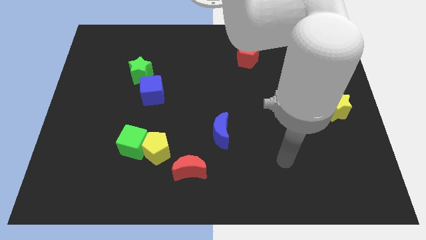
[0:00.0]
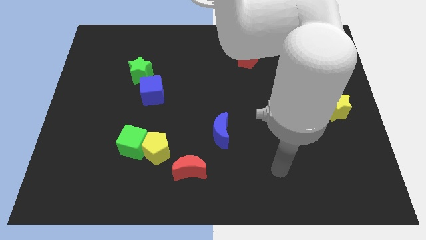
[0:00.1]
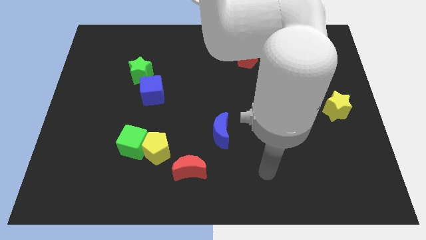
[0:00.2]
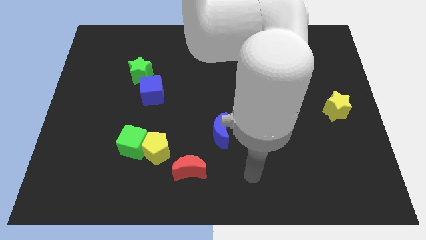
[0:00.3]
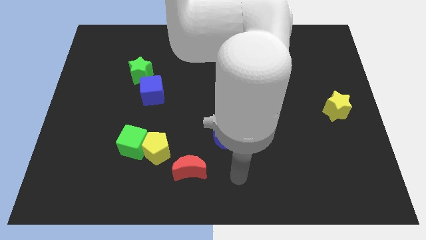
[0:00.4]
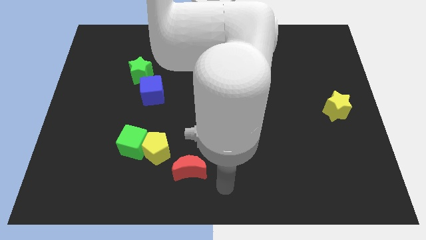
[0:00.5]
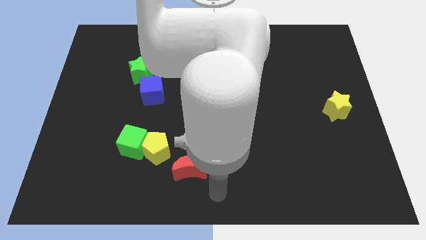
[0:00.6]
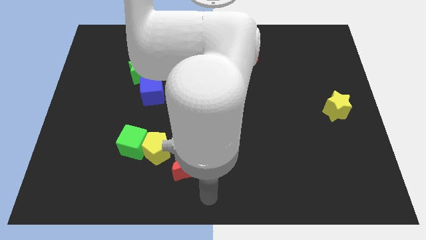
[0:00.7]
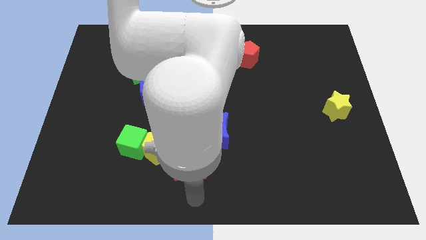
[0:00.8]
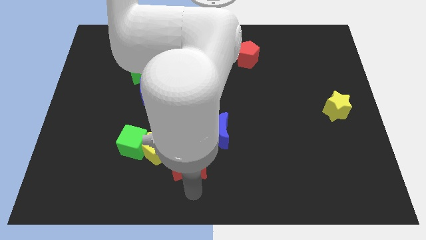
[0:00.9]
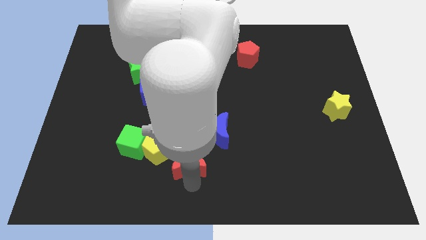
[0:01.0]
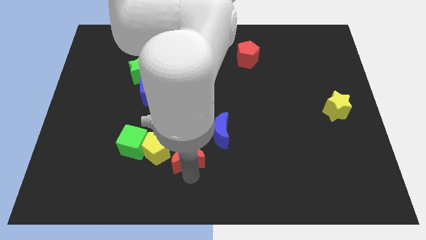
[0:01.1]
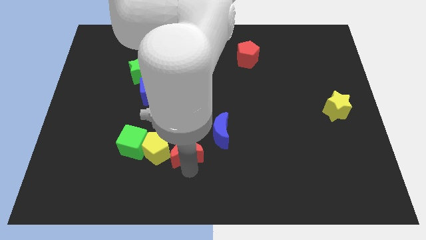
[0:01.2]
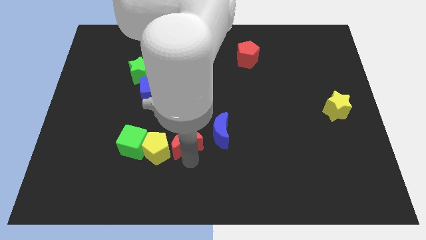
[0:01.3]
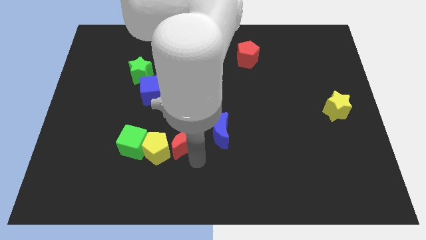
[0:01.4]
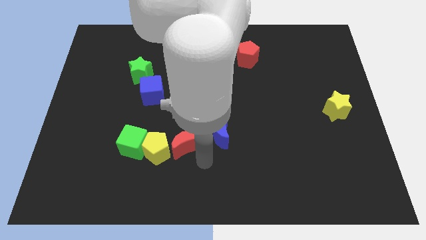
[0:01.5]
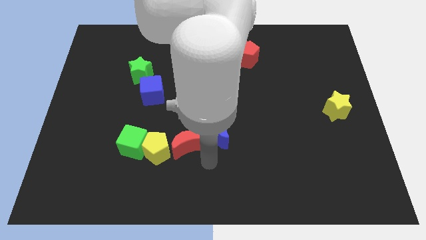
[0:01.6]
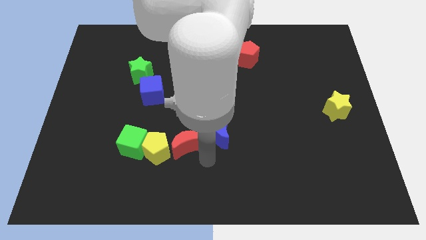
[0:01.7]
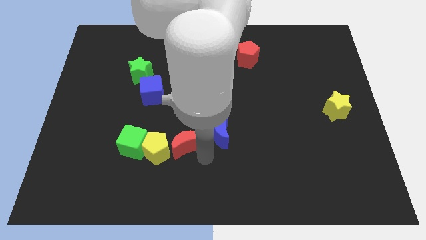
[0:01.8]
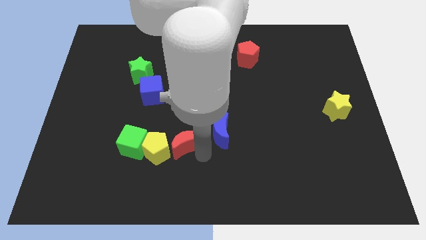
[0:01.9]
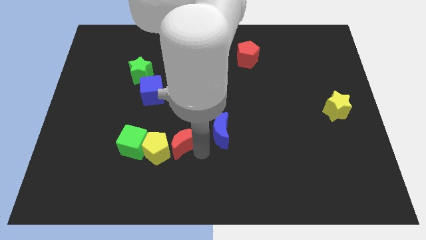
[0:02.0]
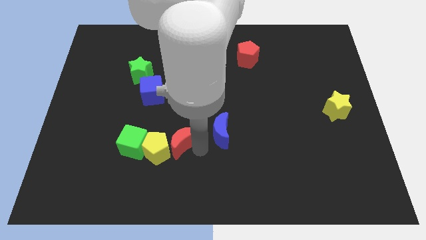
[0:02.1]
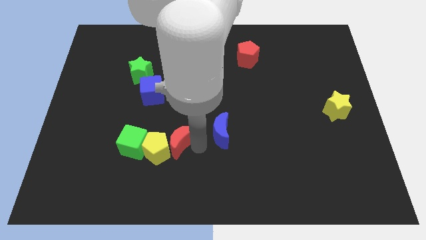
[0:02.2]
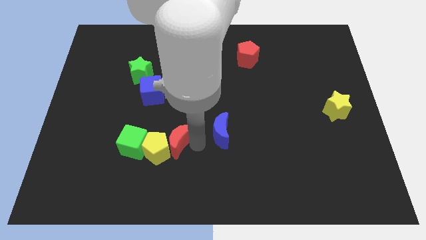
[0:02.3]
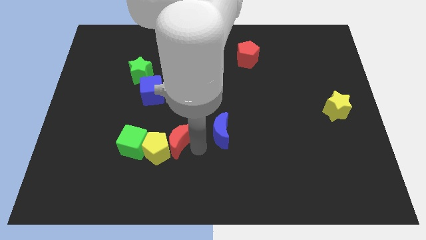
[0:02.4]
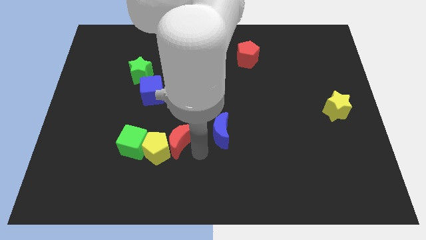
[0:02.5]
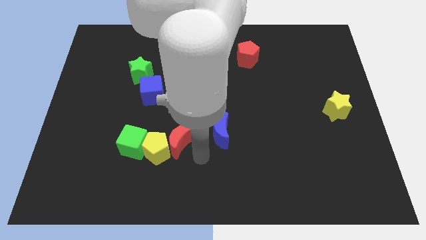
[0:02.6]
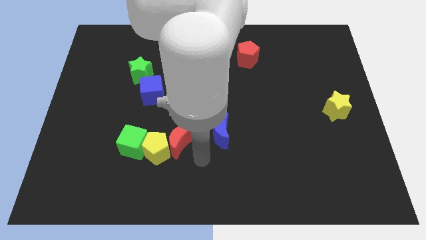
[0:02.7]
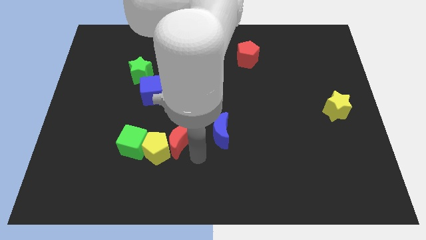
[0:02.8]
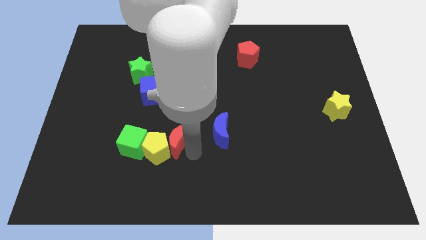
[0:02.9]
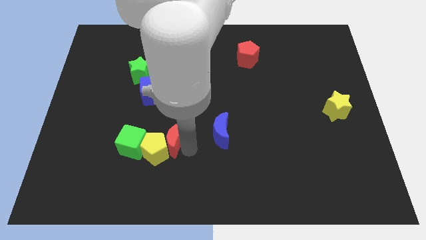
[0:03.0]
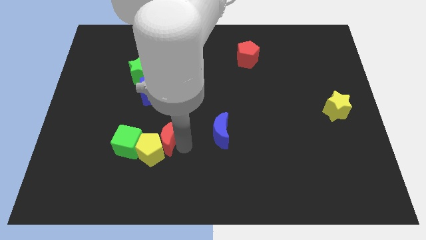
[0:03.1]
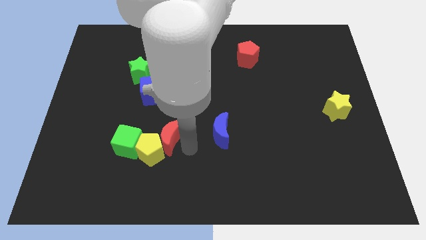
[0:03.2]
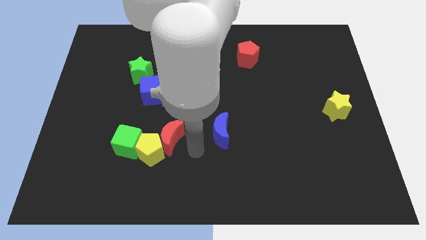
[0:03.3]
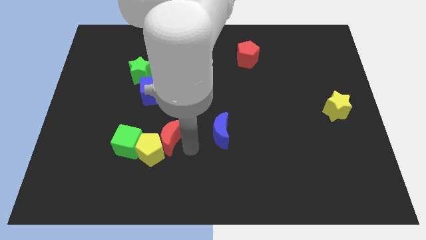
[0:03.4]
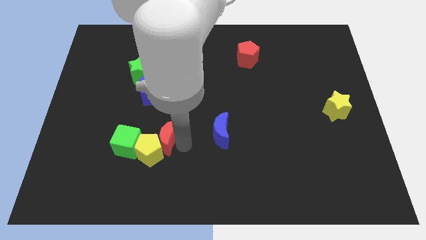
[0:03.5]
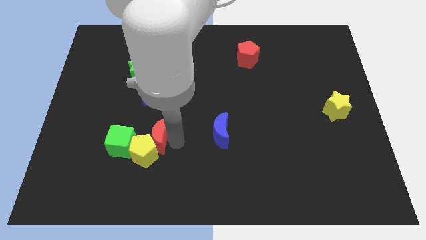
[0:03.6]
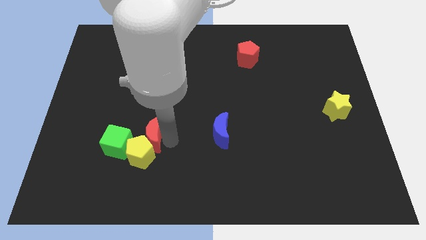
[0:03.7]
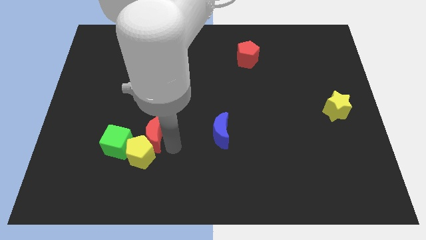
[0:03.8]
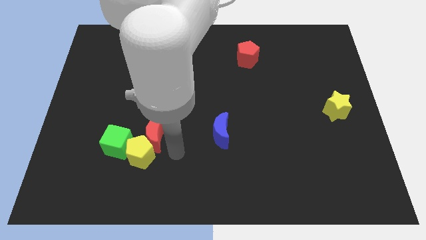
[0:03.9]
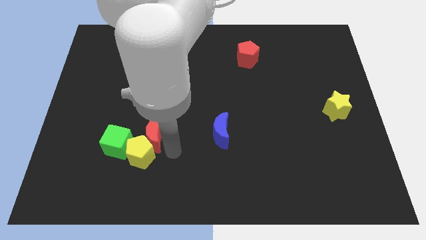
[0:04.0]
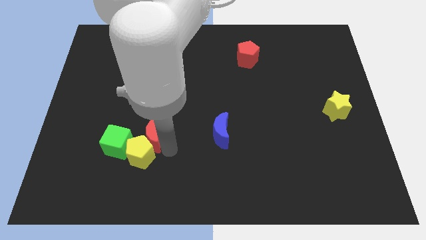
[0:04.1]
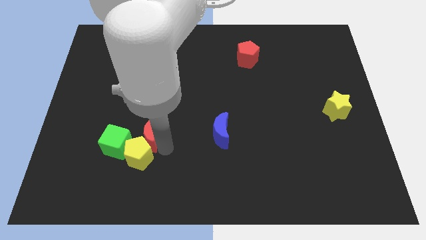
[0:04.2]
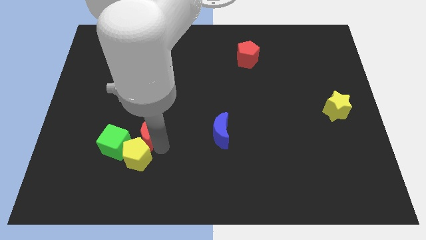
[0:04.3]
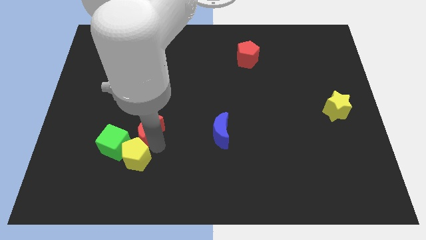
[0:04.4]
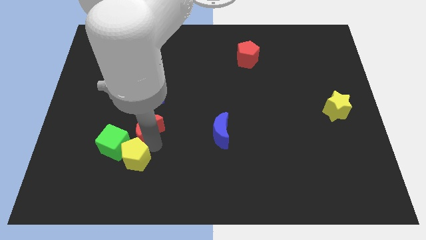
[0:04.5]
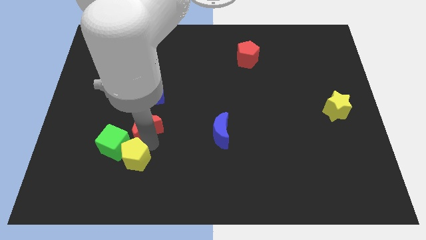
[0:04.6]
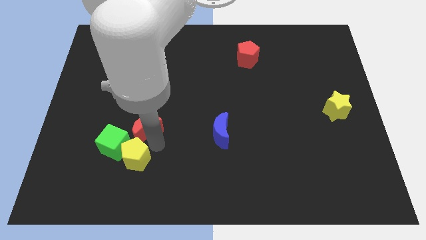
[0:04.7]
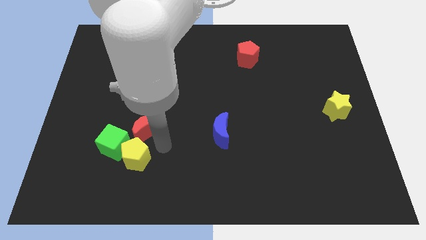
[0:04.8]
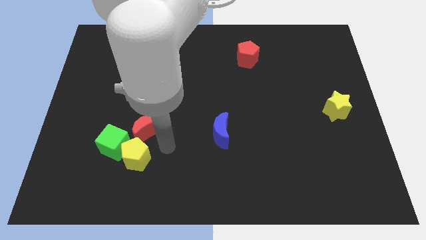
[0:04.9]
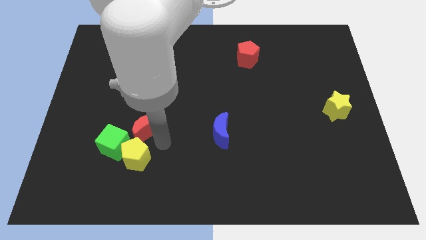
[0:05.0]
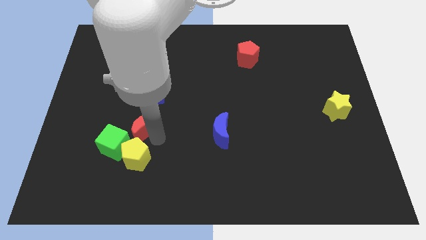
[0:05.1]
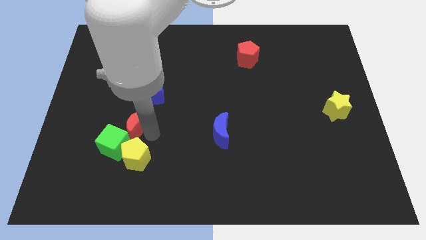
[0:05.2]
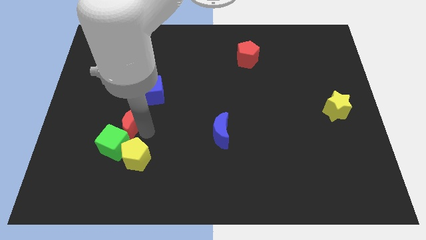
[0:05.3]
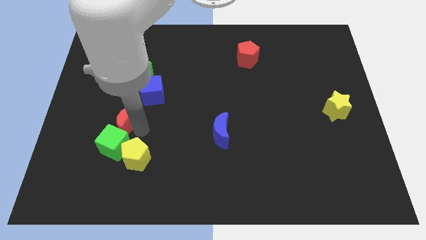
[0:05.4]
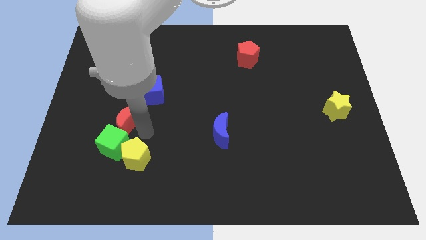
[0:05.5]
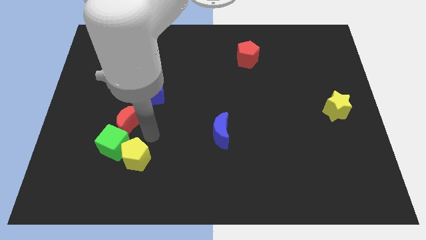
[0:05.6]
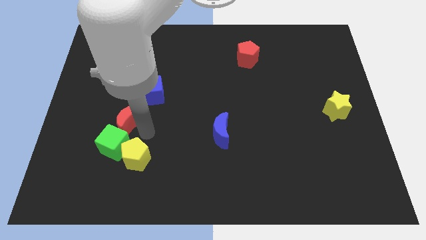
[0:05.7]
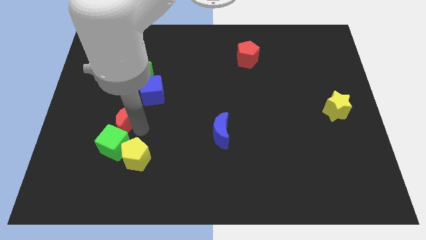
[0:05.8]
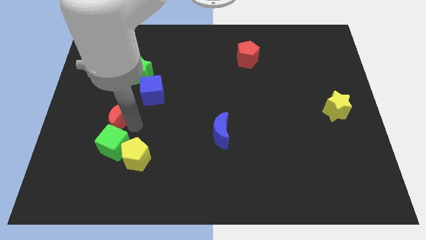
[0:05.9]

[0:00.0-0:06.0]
move the red moon up and to the left

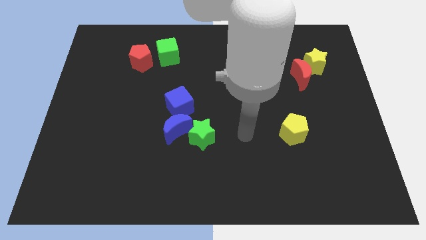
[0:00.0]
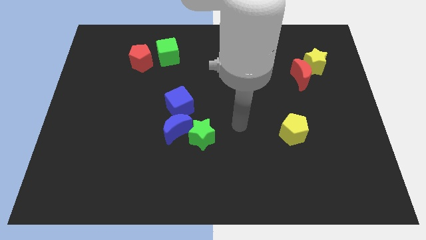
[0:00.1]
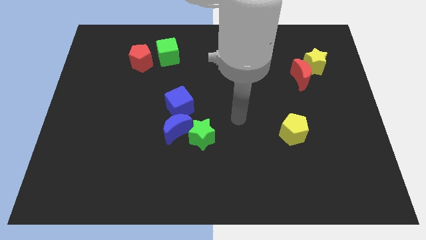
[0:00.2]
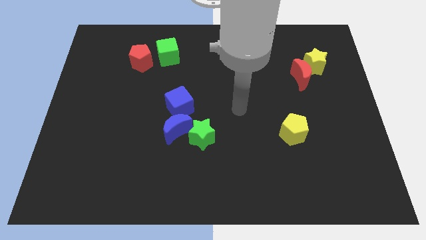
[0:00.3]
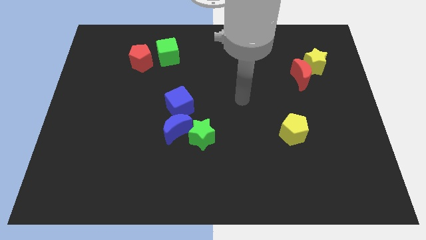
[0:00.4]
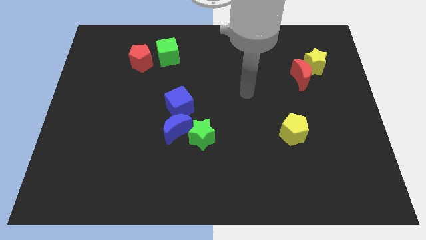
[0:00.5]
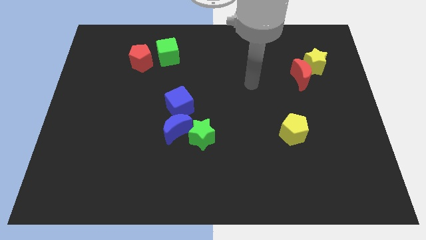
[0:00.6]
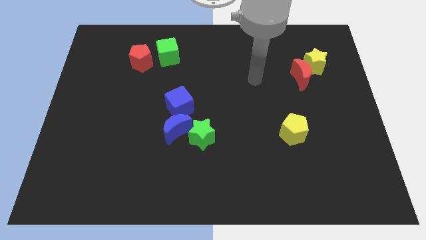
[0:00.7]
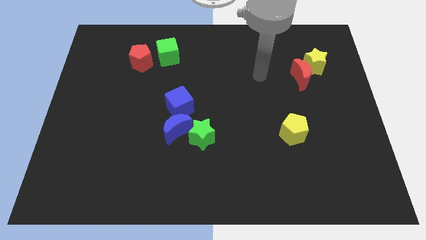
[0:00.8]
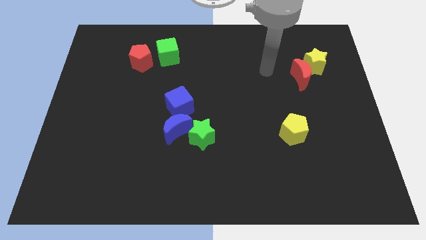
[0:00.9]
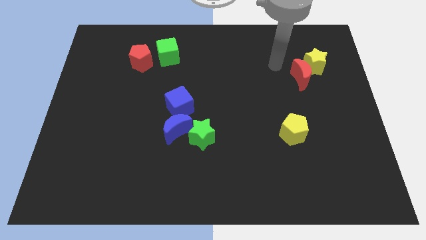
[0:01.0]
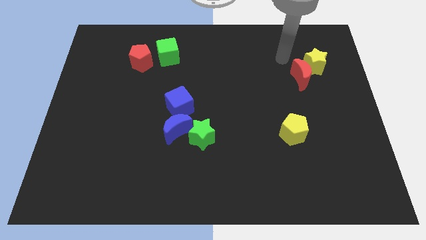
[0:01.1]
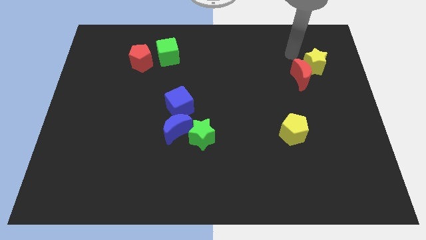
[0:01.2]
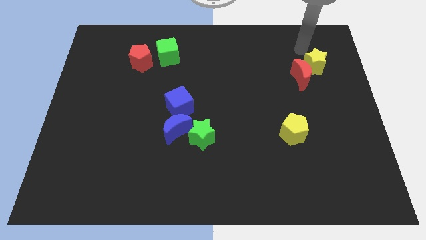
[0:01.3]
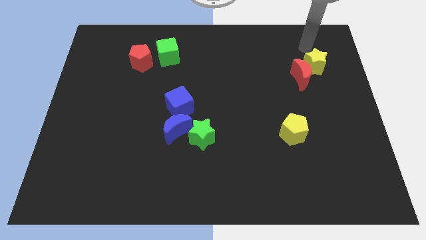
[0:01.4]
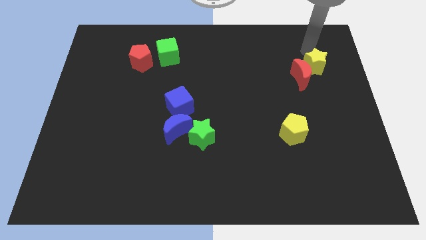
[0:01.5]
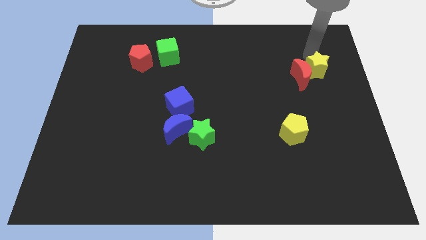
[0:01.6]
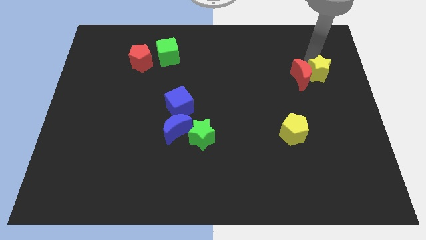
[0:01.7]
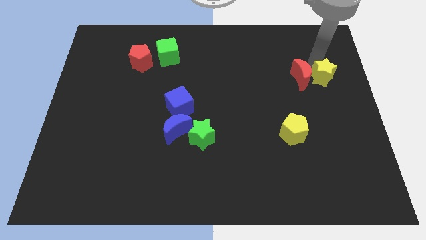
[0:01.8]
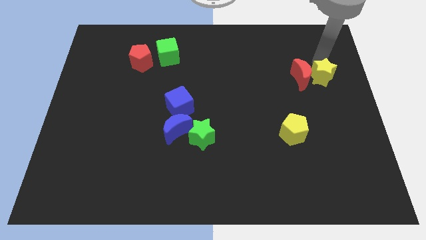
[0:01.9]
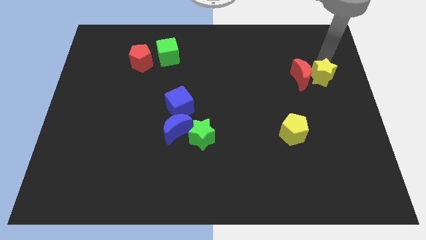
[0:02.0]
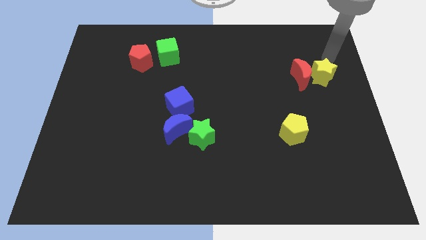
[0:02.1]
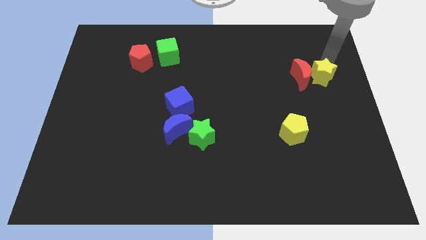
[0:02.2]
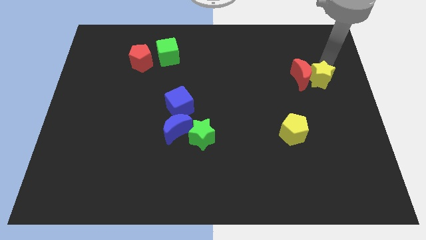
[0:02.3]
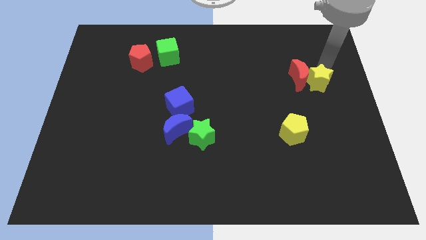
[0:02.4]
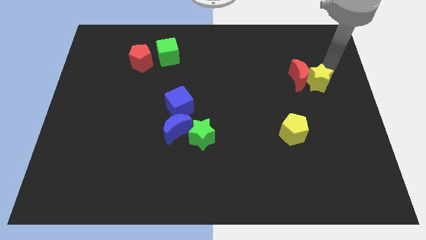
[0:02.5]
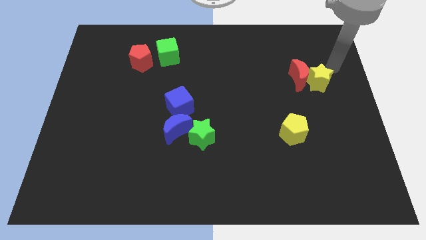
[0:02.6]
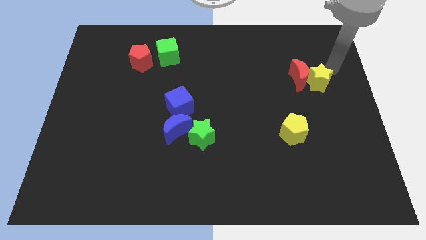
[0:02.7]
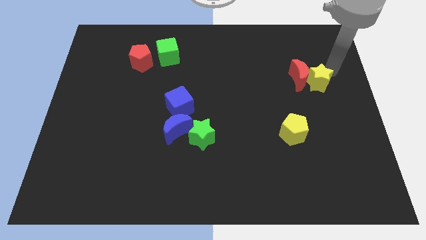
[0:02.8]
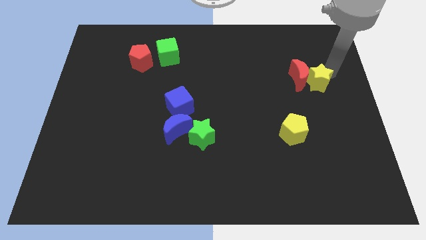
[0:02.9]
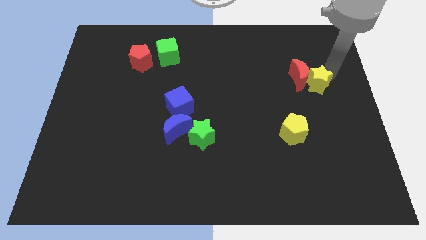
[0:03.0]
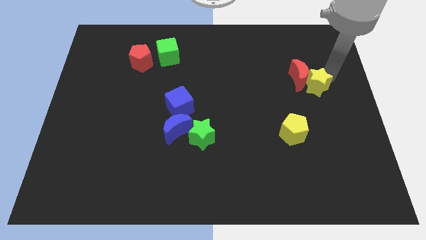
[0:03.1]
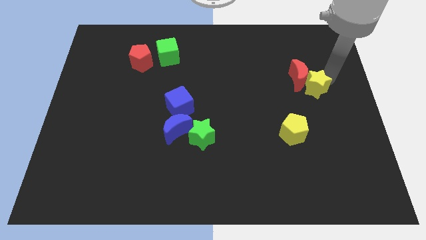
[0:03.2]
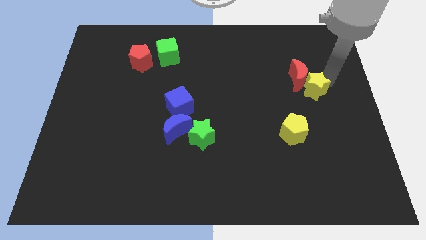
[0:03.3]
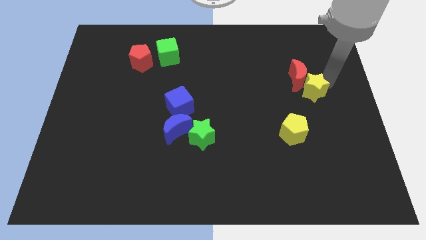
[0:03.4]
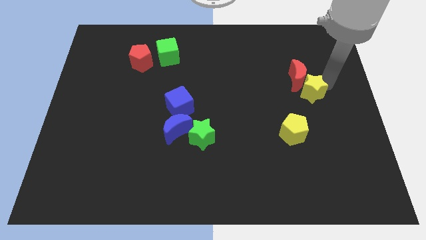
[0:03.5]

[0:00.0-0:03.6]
move the yellow star a little bit down and left
